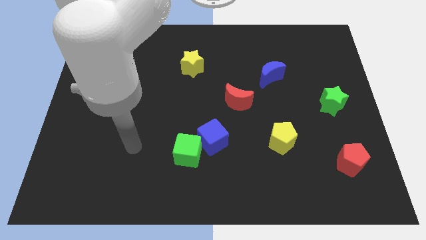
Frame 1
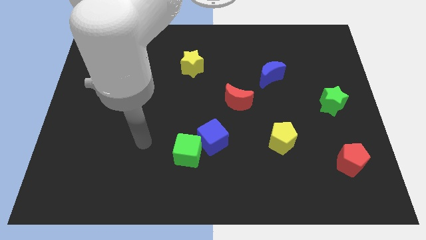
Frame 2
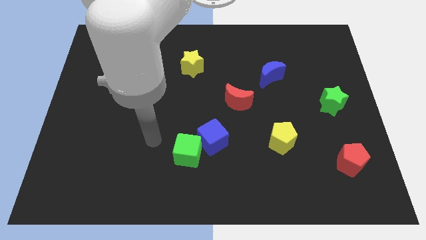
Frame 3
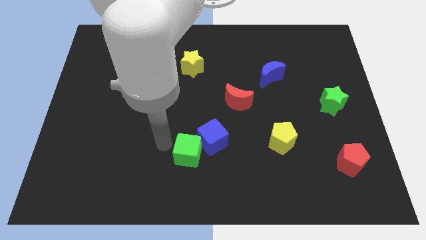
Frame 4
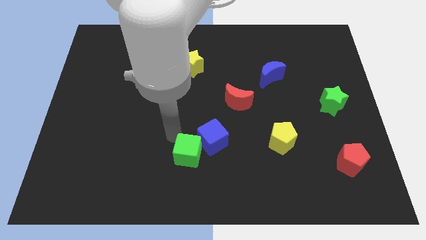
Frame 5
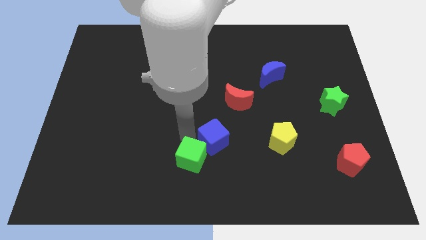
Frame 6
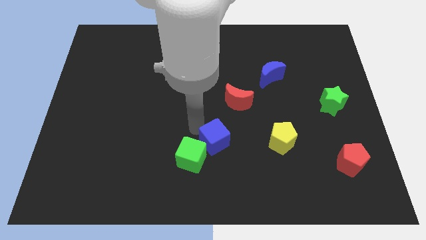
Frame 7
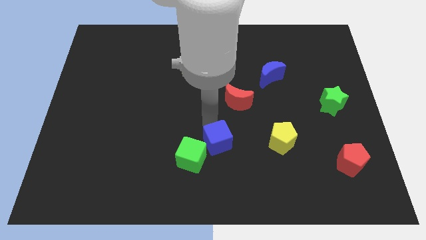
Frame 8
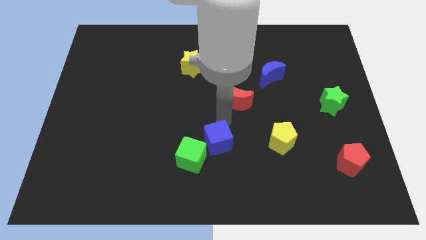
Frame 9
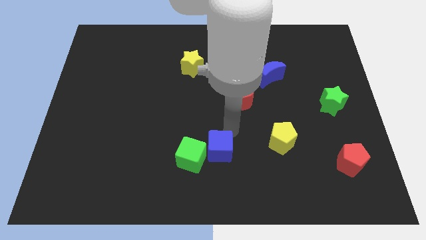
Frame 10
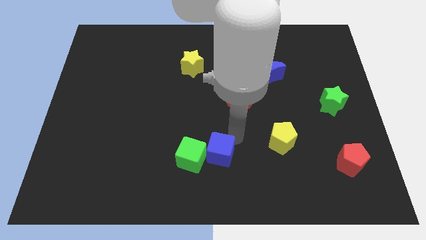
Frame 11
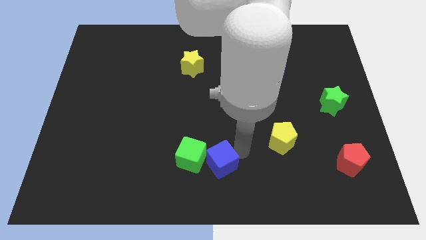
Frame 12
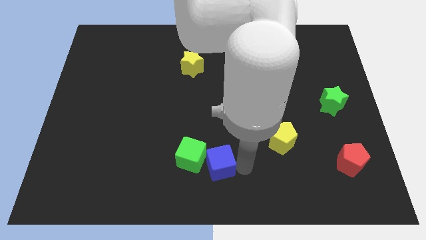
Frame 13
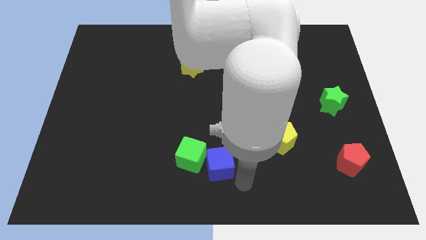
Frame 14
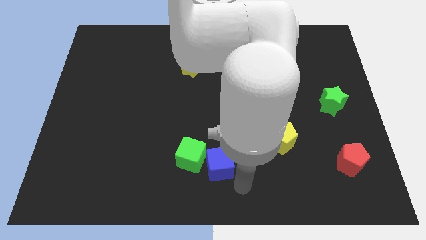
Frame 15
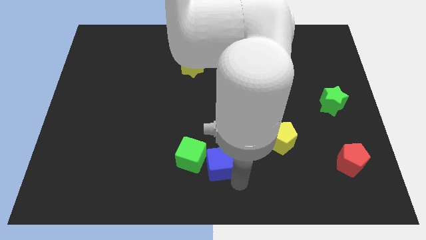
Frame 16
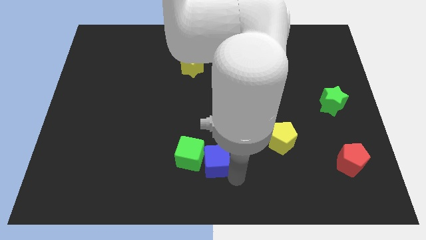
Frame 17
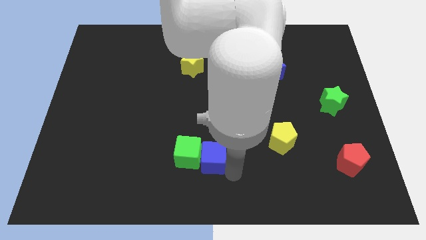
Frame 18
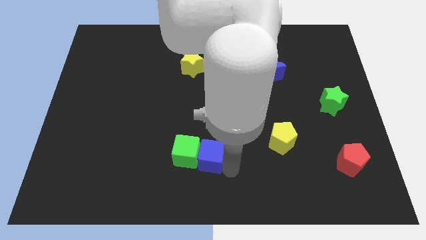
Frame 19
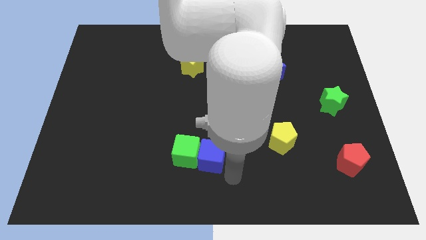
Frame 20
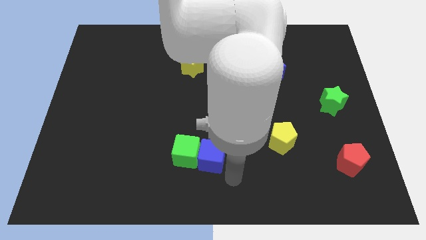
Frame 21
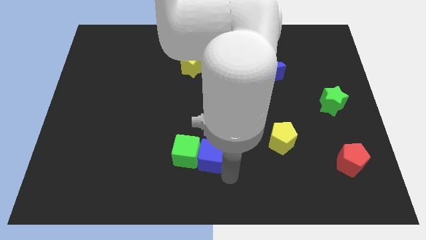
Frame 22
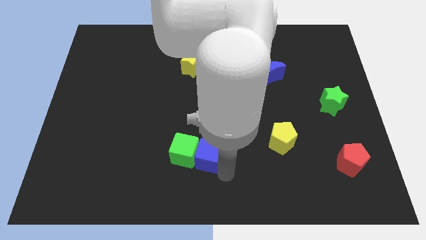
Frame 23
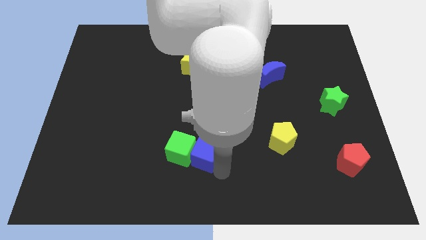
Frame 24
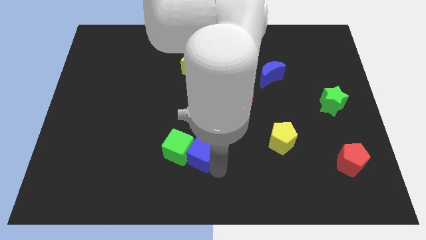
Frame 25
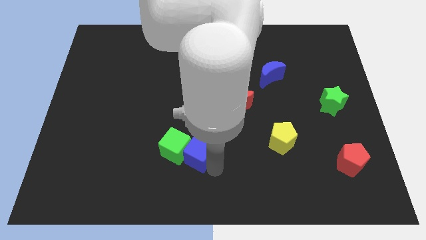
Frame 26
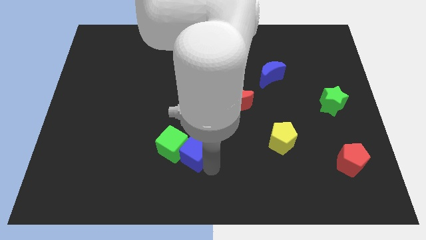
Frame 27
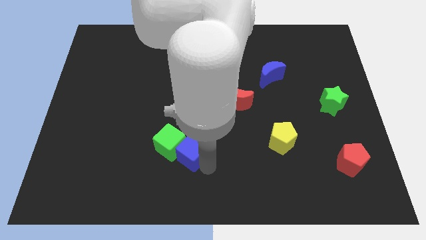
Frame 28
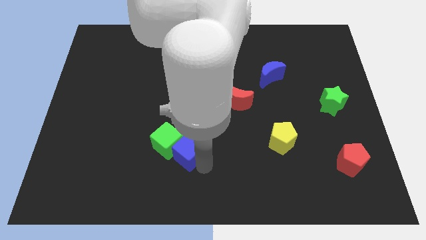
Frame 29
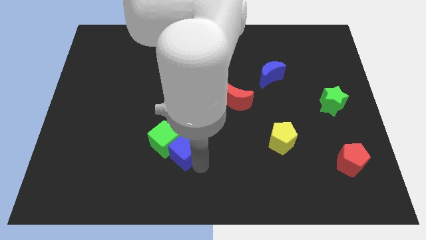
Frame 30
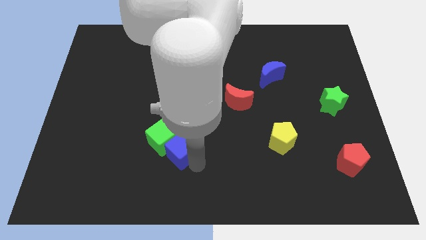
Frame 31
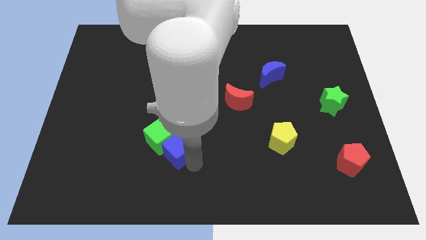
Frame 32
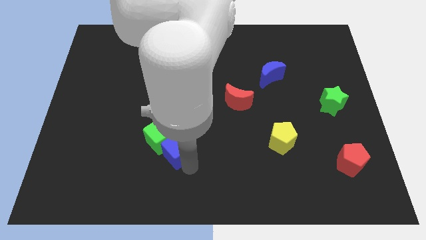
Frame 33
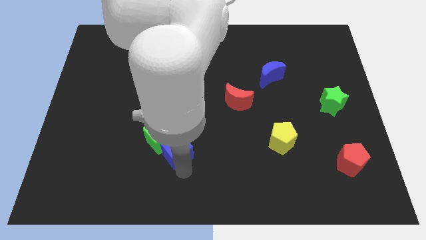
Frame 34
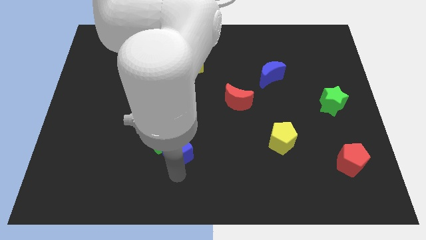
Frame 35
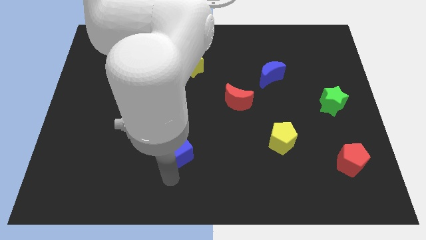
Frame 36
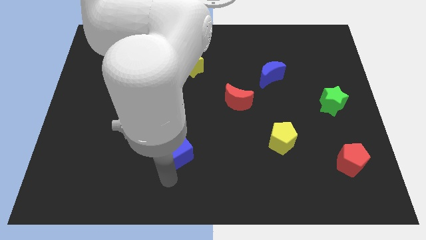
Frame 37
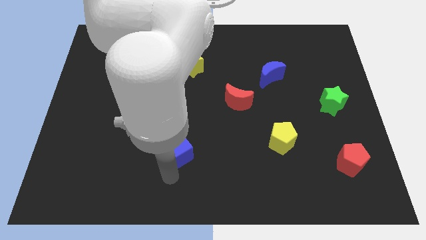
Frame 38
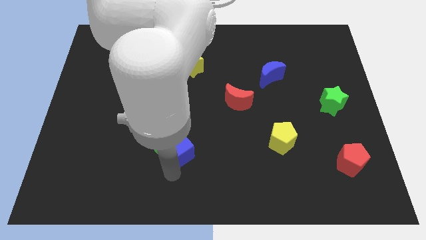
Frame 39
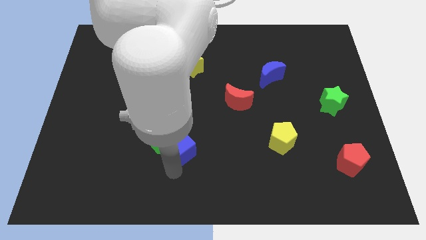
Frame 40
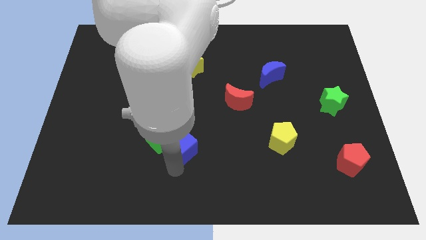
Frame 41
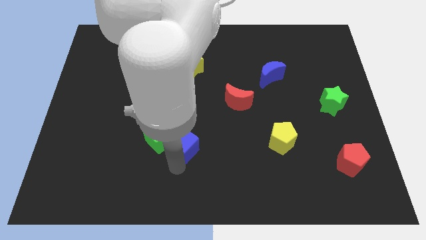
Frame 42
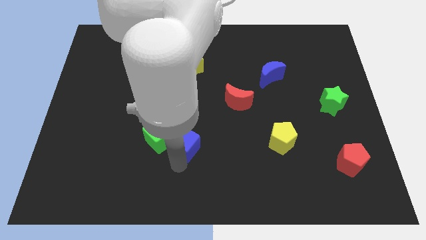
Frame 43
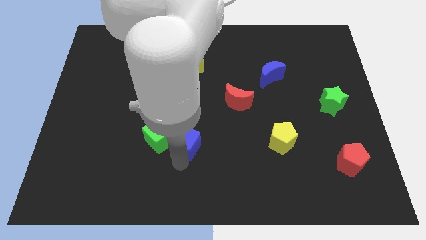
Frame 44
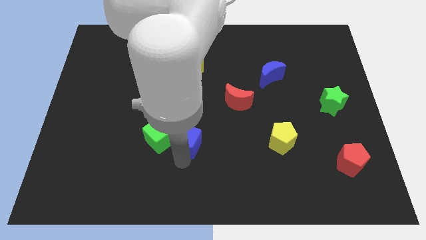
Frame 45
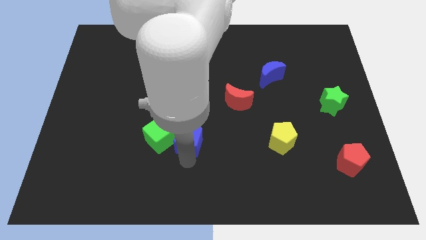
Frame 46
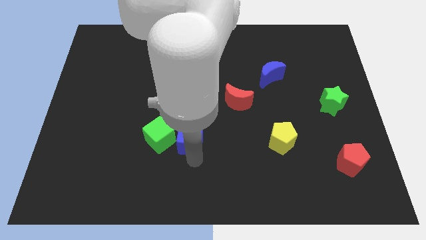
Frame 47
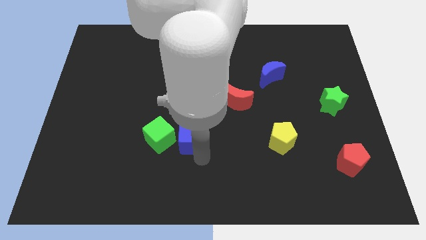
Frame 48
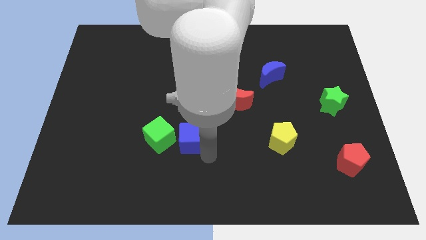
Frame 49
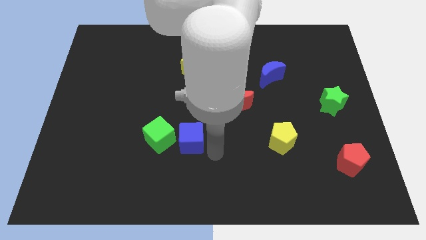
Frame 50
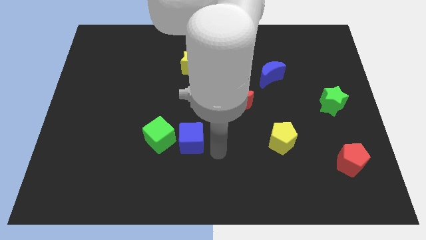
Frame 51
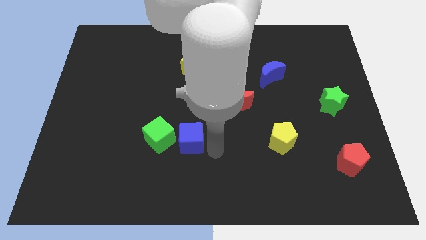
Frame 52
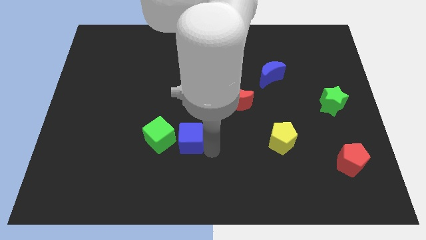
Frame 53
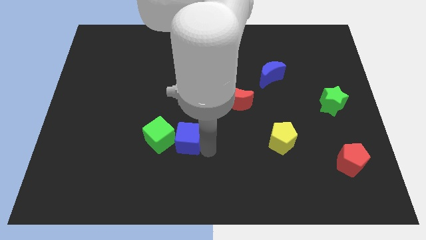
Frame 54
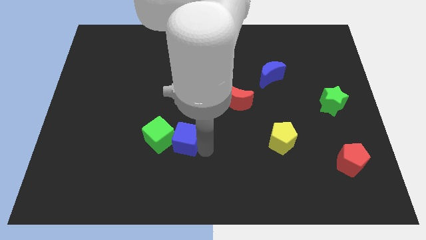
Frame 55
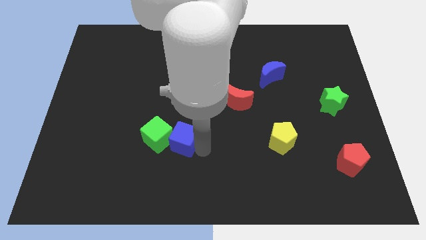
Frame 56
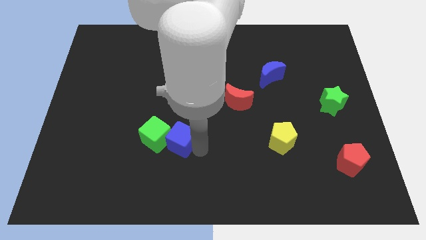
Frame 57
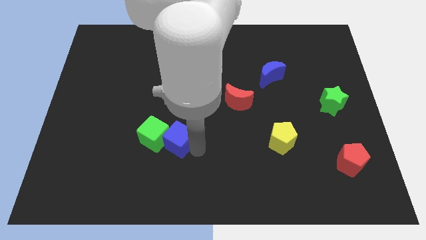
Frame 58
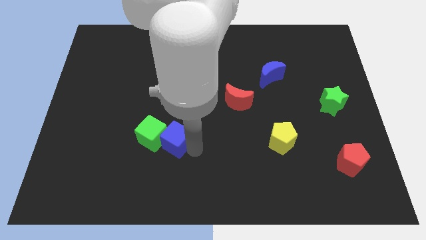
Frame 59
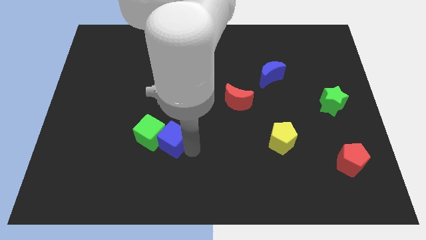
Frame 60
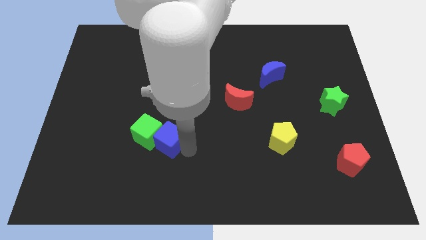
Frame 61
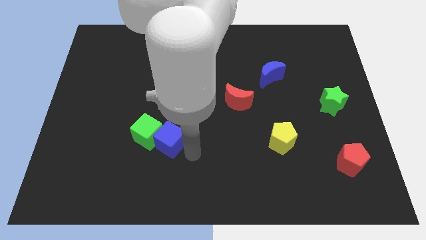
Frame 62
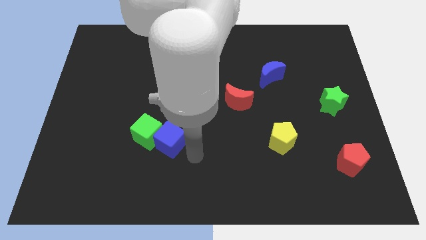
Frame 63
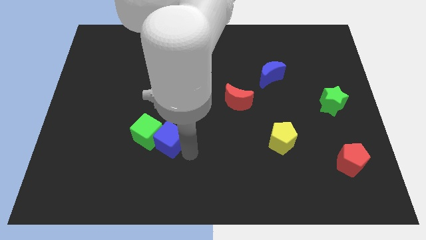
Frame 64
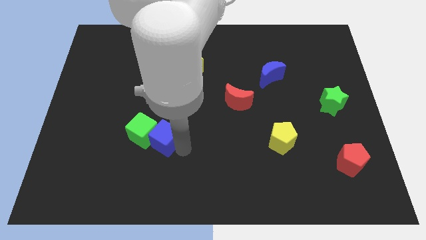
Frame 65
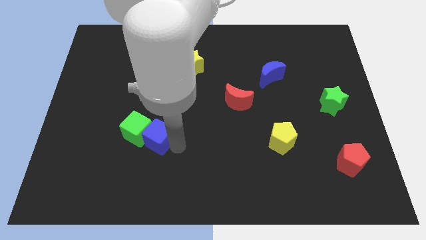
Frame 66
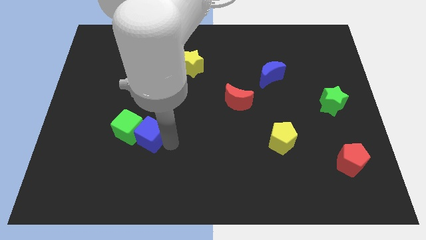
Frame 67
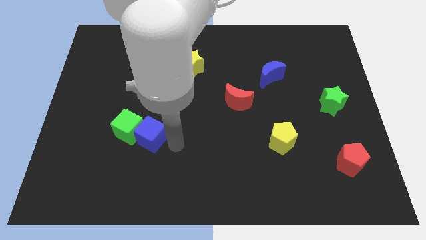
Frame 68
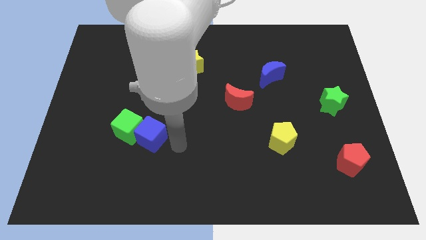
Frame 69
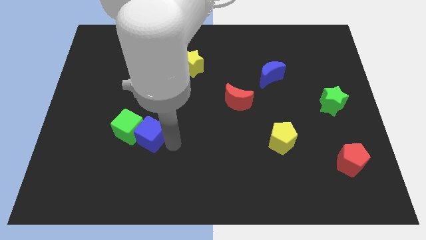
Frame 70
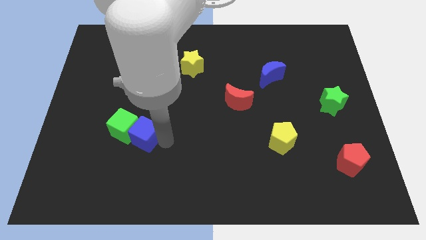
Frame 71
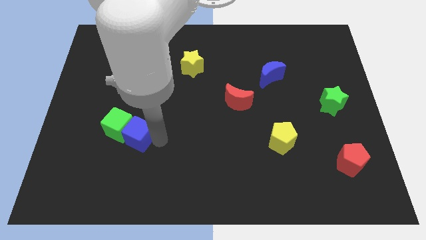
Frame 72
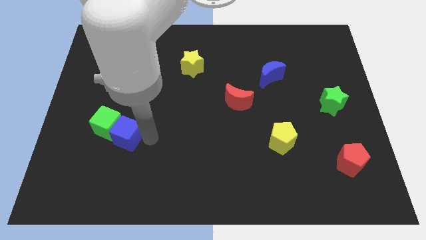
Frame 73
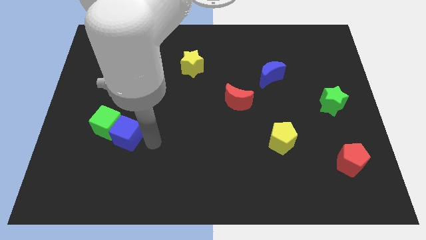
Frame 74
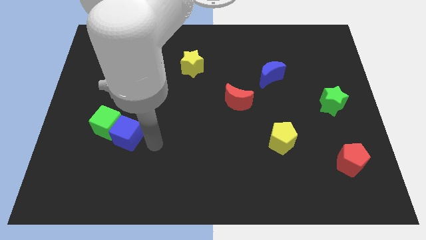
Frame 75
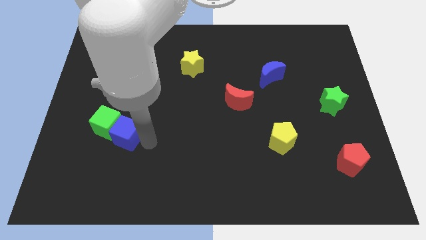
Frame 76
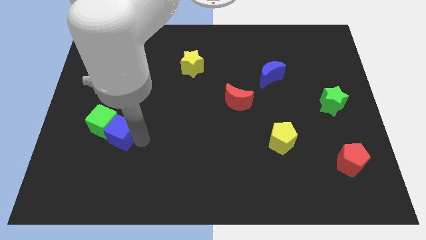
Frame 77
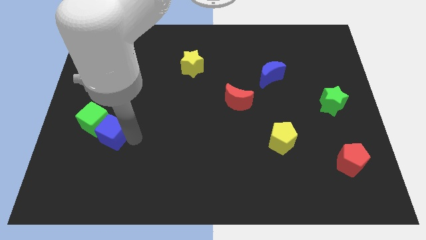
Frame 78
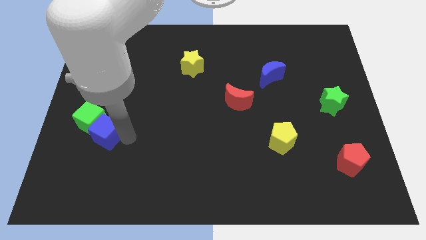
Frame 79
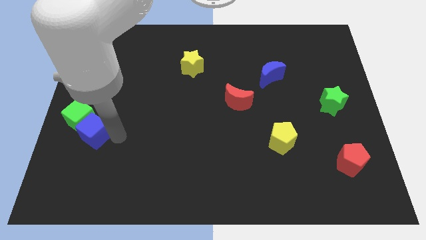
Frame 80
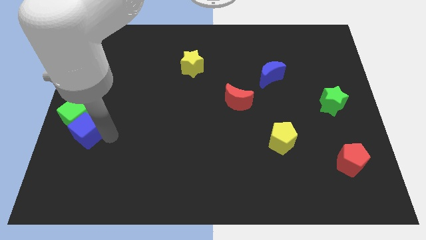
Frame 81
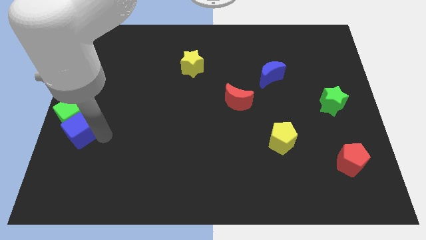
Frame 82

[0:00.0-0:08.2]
put the blue cube to the center left
